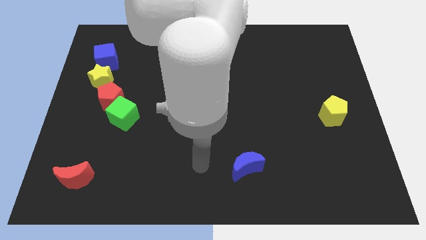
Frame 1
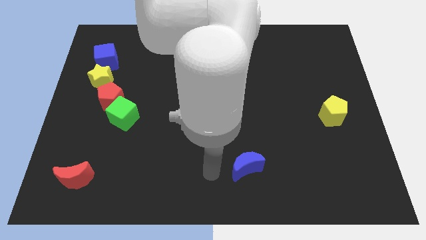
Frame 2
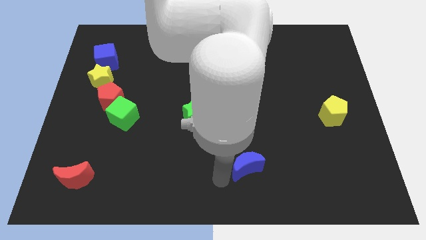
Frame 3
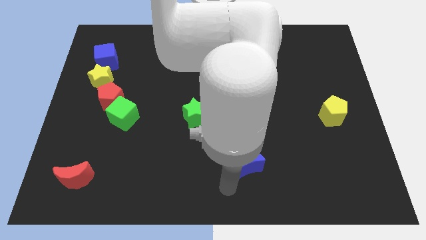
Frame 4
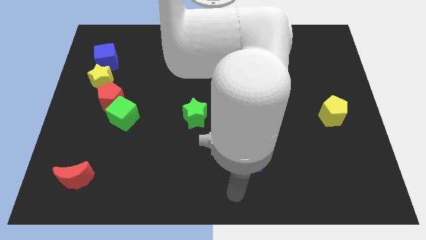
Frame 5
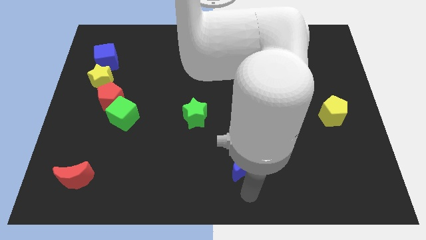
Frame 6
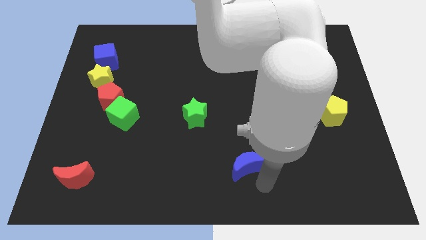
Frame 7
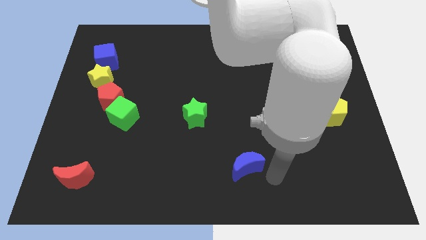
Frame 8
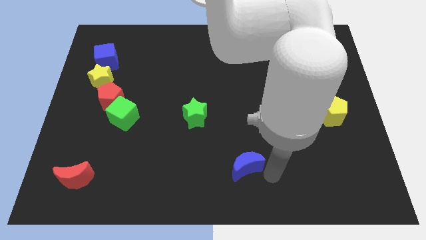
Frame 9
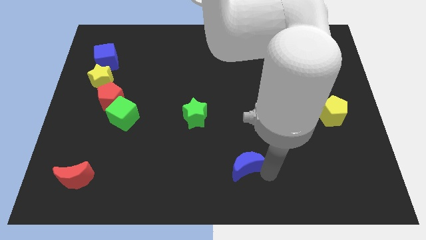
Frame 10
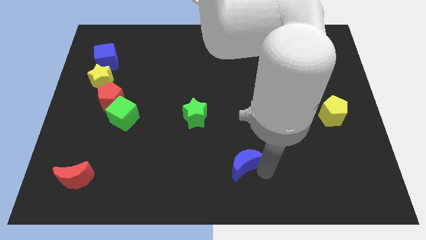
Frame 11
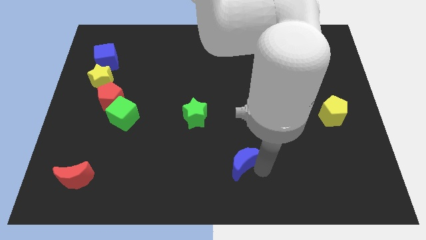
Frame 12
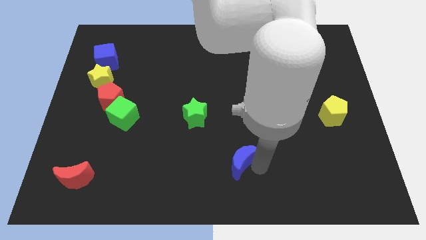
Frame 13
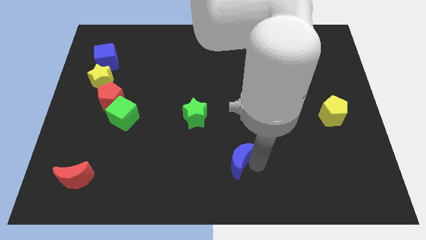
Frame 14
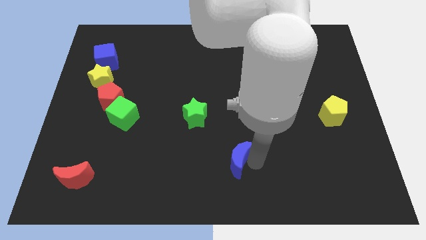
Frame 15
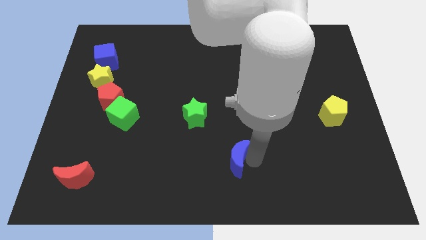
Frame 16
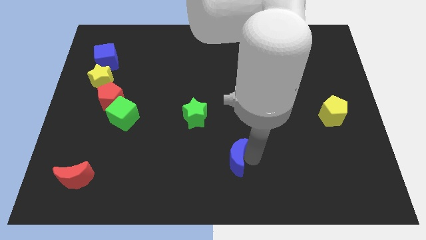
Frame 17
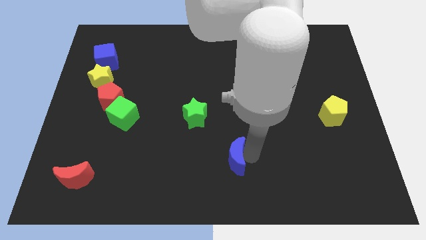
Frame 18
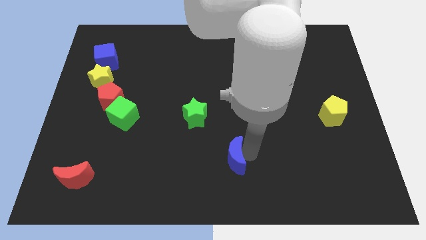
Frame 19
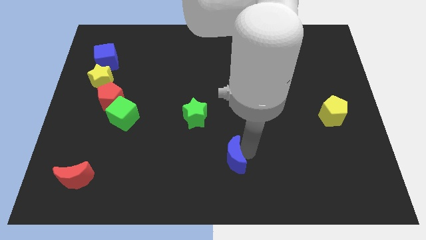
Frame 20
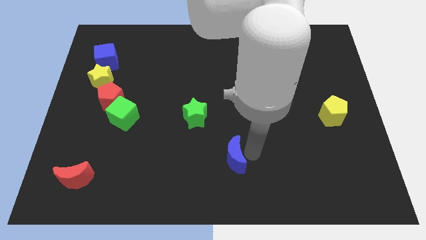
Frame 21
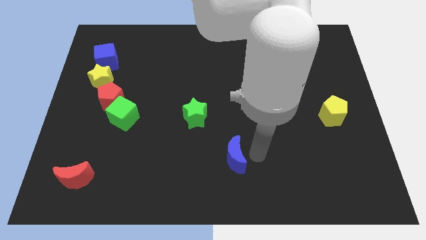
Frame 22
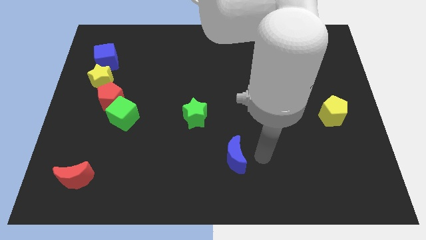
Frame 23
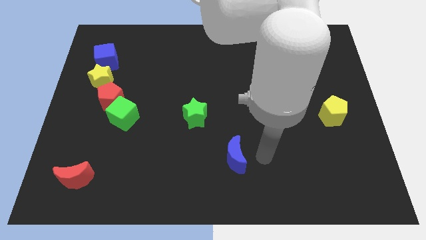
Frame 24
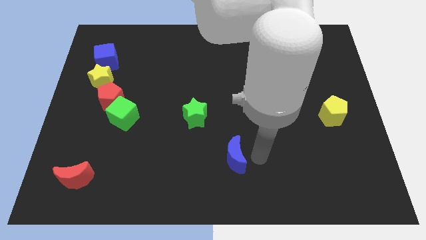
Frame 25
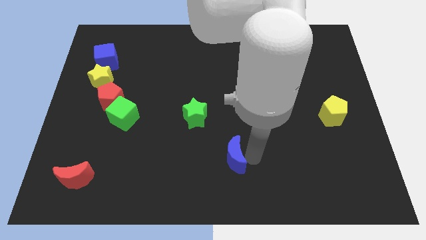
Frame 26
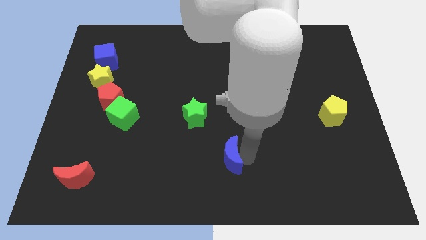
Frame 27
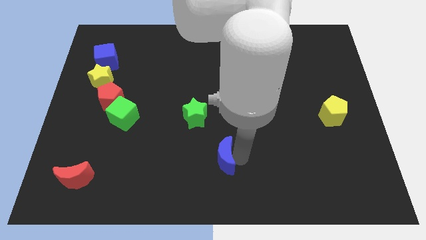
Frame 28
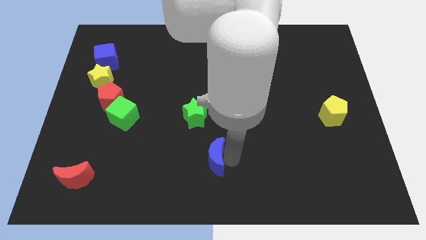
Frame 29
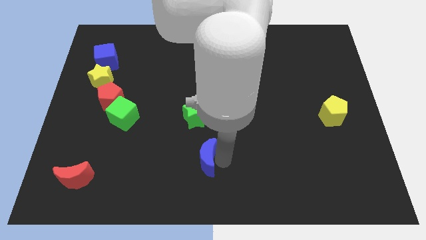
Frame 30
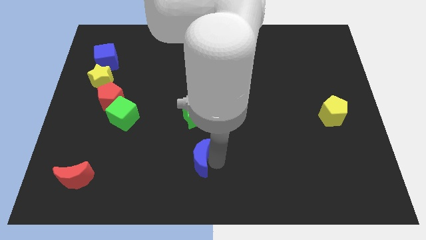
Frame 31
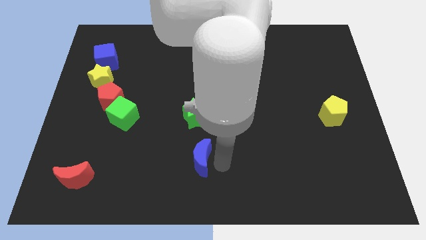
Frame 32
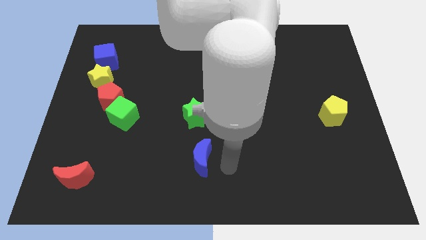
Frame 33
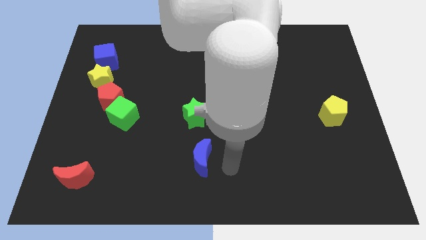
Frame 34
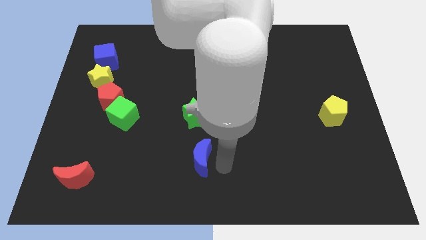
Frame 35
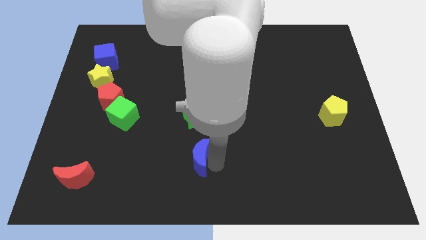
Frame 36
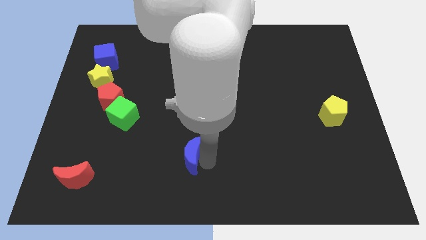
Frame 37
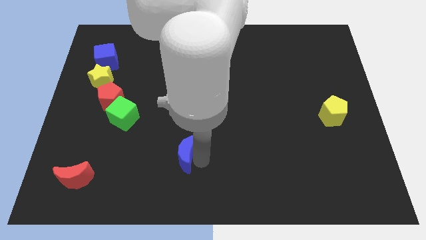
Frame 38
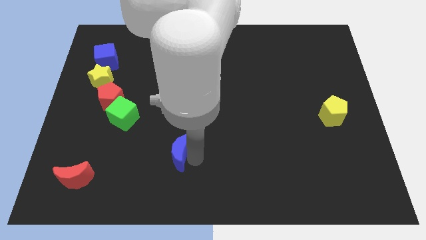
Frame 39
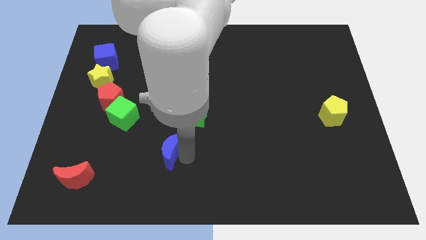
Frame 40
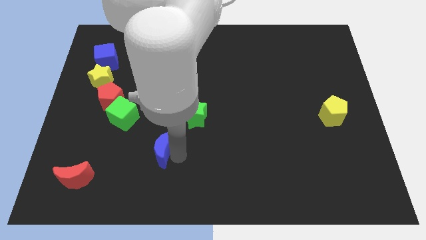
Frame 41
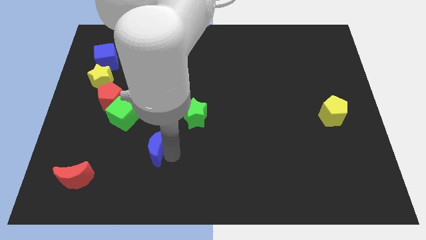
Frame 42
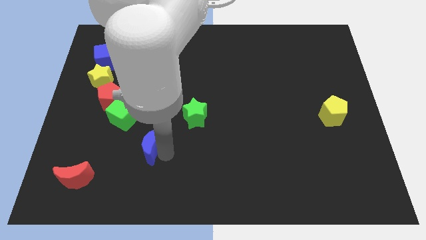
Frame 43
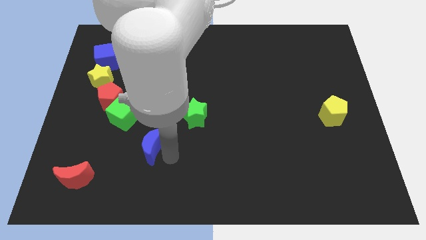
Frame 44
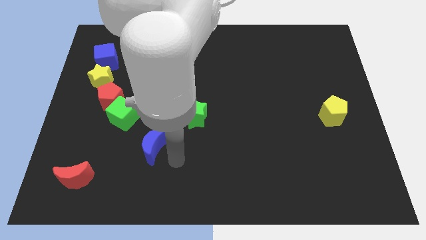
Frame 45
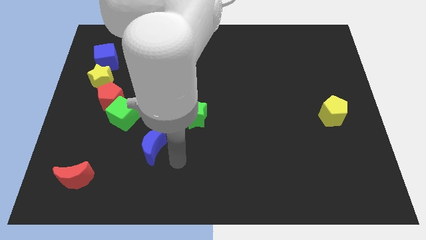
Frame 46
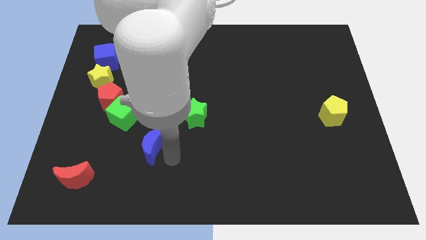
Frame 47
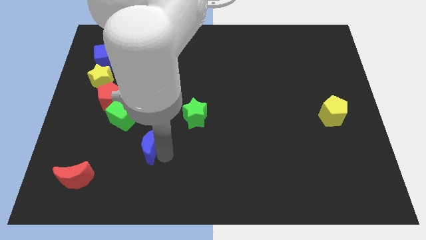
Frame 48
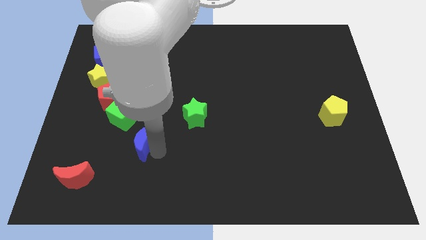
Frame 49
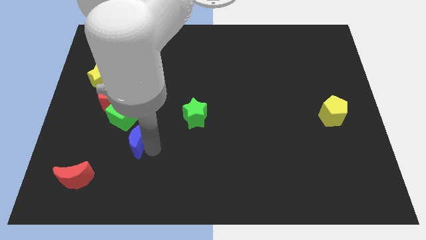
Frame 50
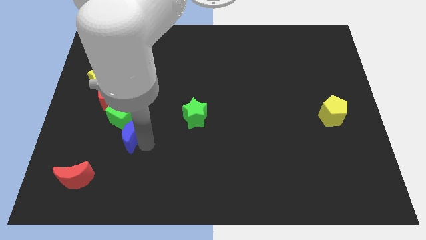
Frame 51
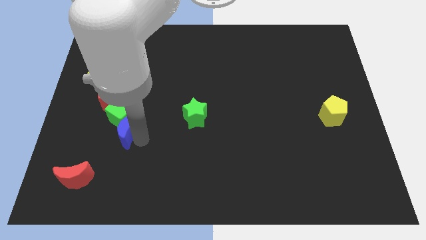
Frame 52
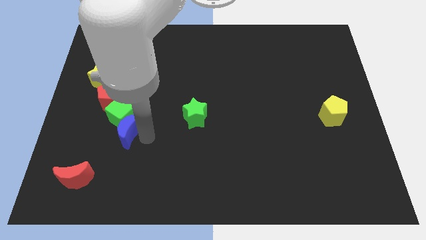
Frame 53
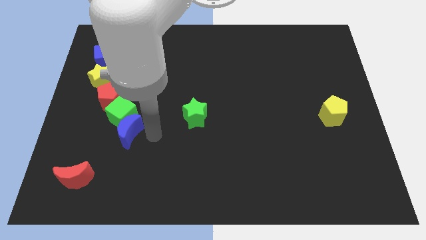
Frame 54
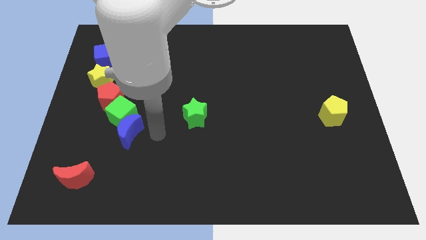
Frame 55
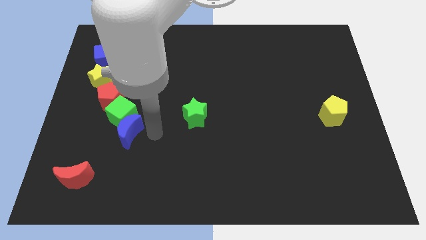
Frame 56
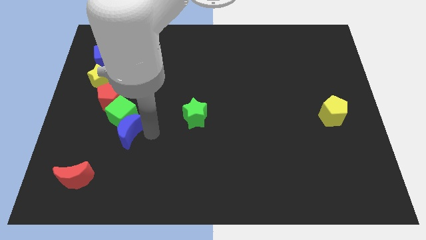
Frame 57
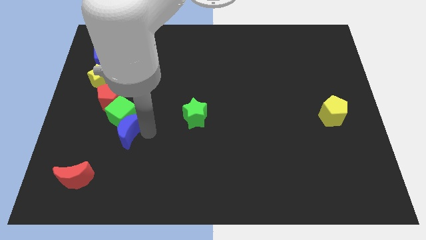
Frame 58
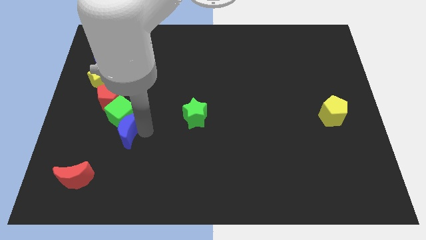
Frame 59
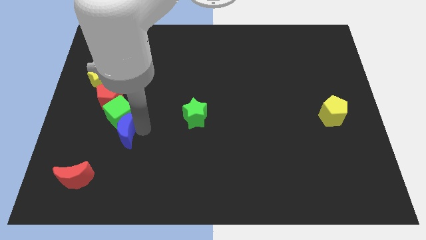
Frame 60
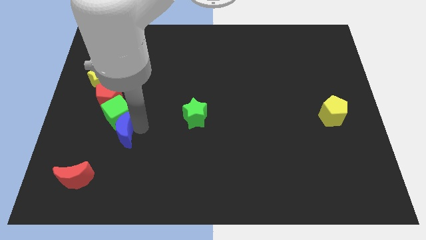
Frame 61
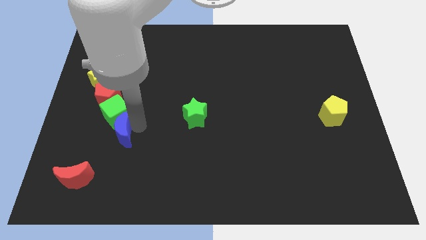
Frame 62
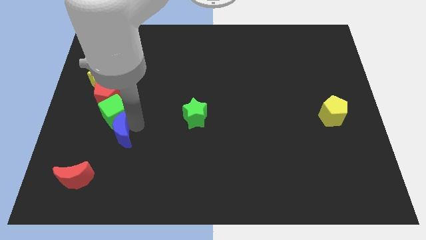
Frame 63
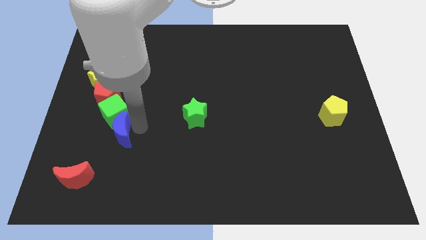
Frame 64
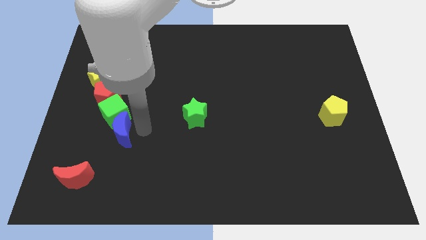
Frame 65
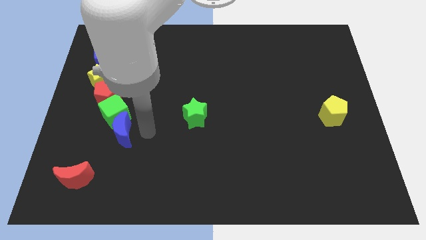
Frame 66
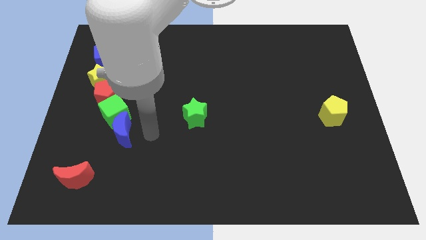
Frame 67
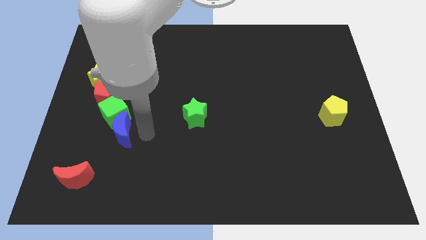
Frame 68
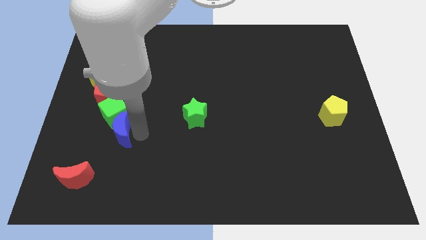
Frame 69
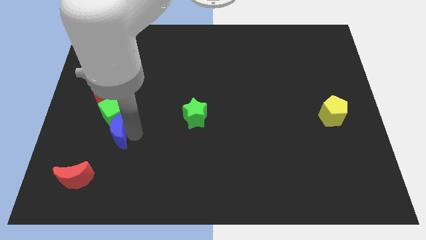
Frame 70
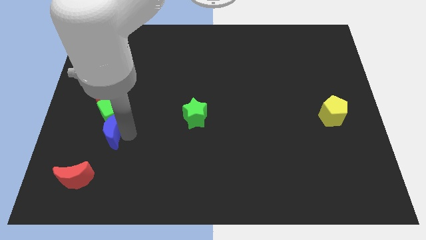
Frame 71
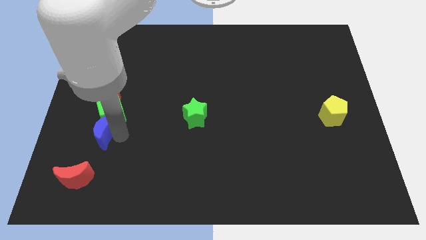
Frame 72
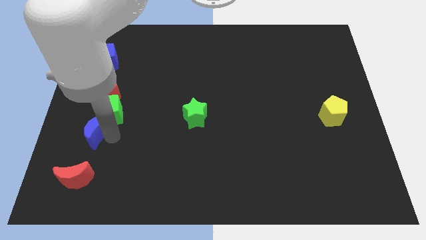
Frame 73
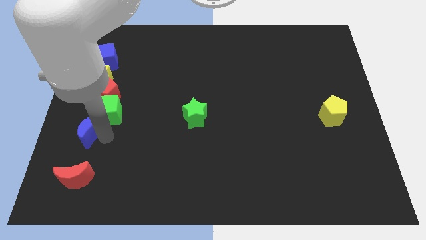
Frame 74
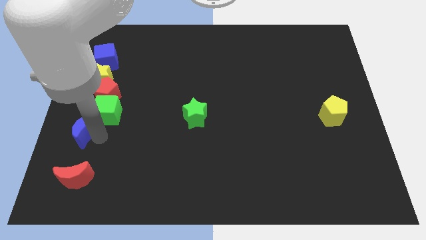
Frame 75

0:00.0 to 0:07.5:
push the blue moon to the left side
